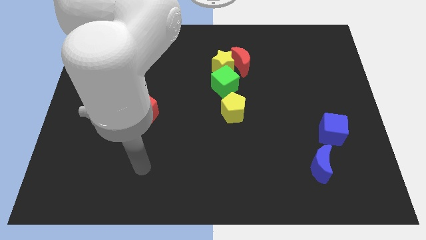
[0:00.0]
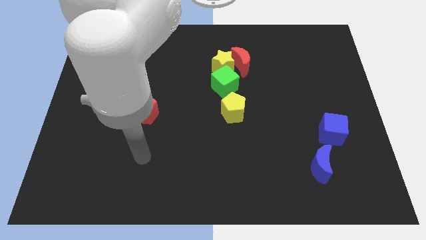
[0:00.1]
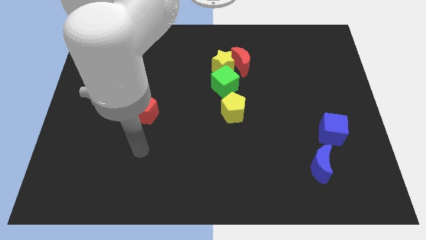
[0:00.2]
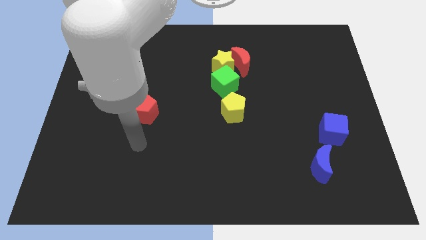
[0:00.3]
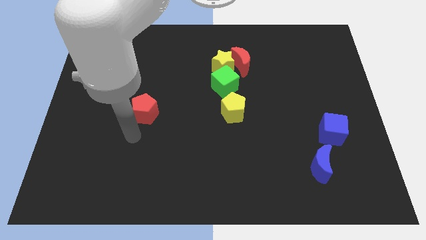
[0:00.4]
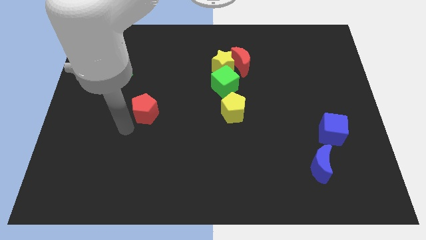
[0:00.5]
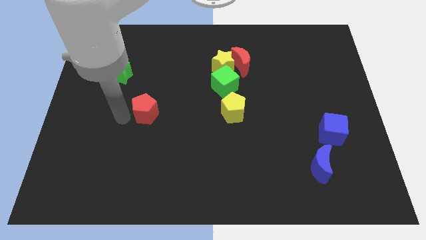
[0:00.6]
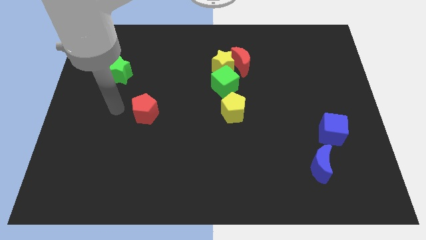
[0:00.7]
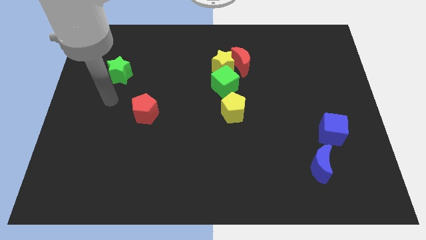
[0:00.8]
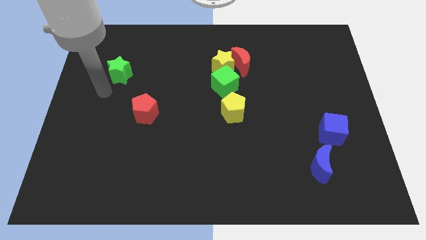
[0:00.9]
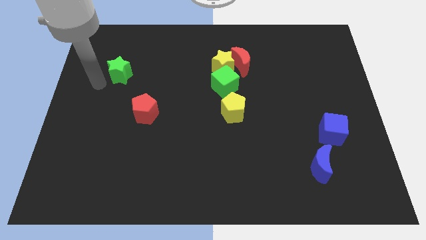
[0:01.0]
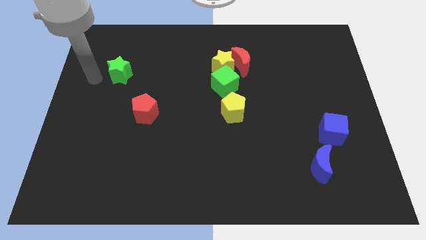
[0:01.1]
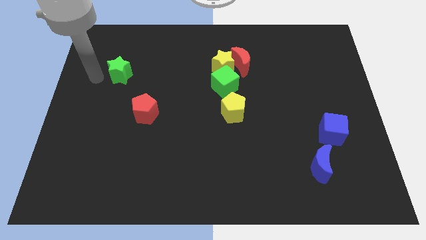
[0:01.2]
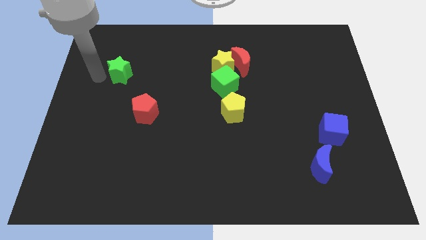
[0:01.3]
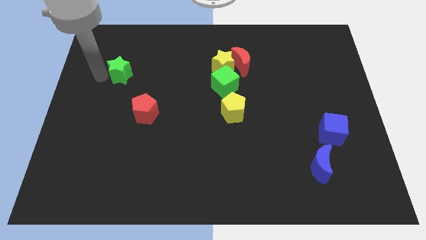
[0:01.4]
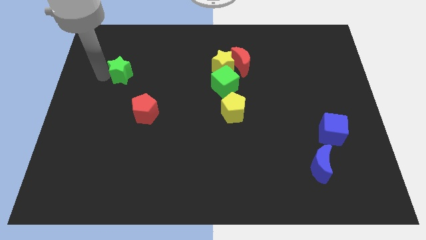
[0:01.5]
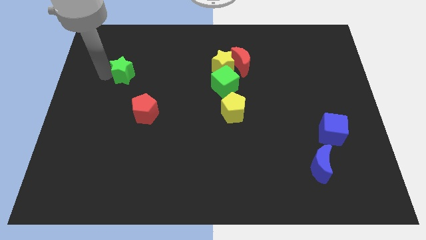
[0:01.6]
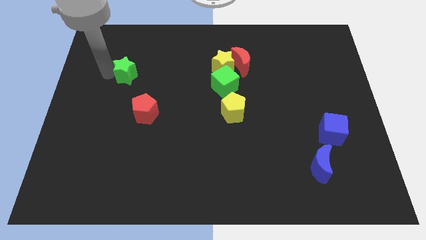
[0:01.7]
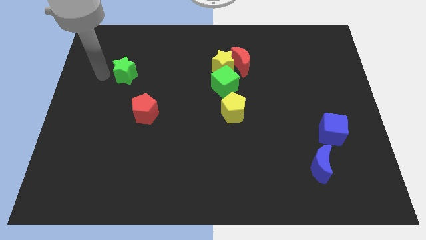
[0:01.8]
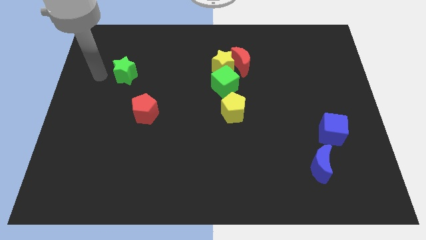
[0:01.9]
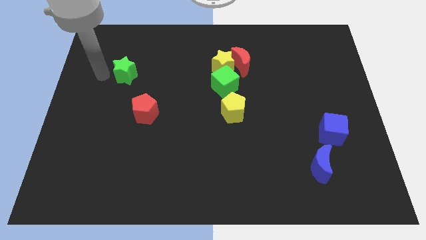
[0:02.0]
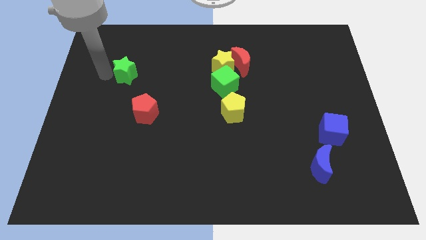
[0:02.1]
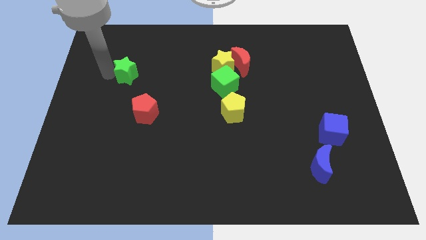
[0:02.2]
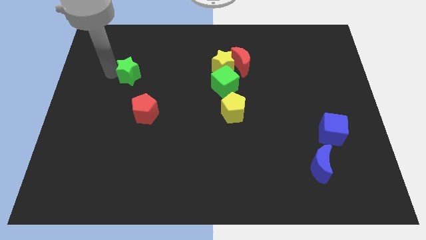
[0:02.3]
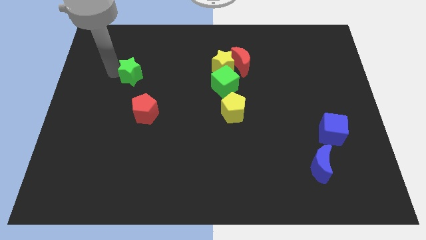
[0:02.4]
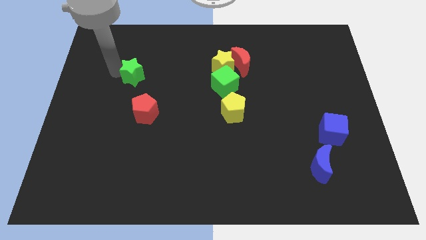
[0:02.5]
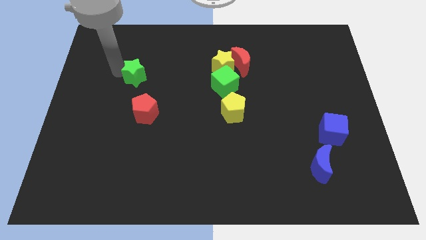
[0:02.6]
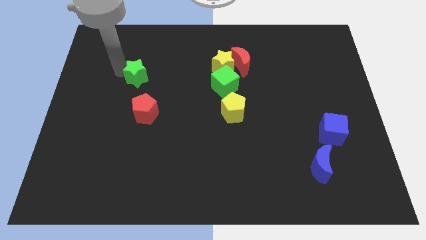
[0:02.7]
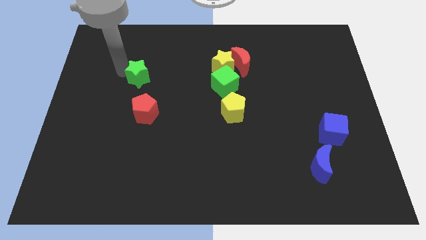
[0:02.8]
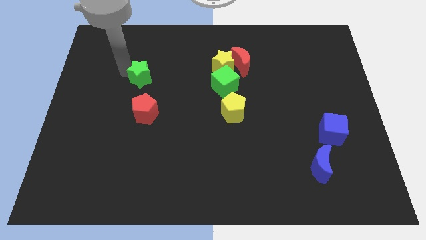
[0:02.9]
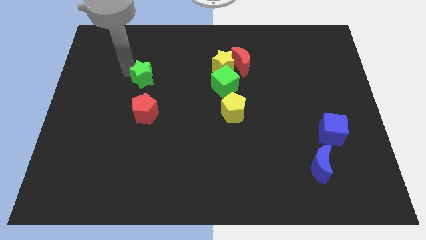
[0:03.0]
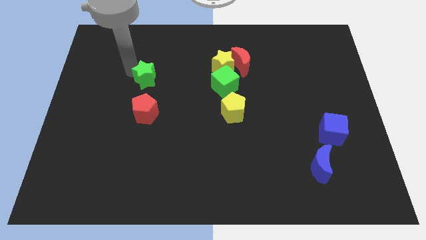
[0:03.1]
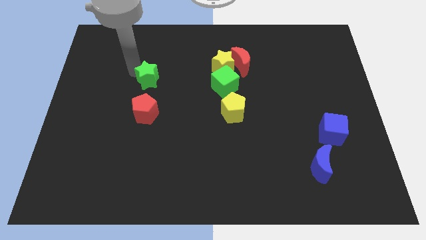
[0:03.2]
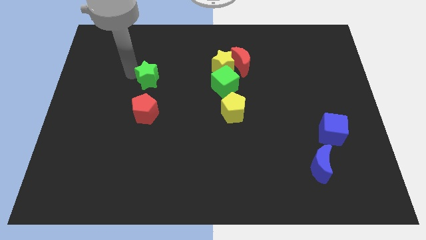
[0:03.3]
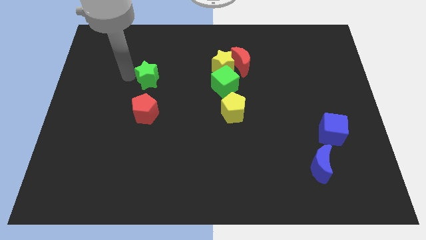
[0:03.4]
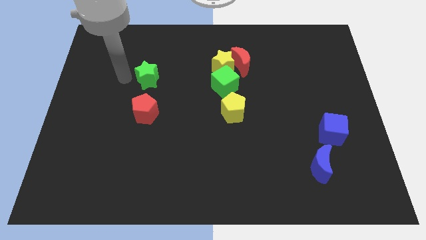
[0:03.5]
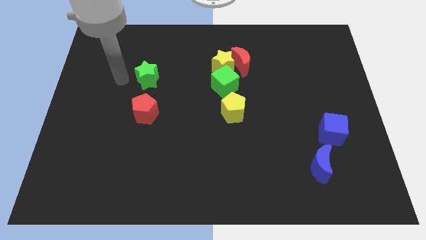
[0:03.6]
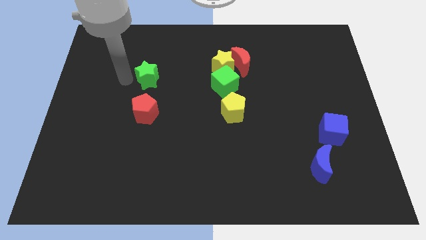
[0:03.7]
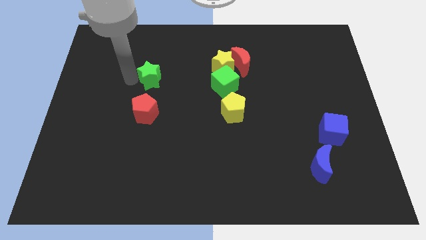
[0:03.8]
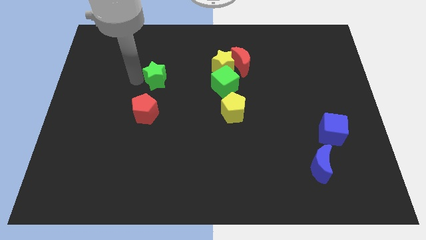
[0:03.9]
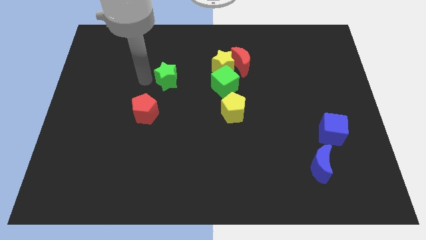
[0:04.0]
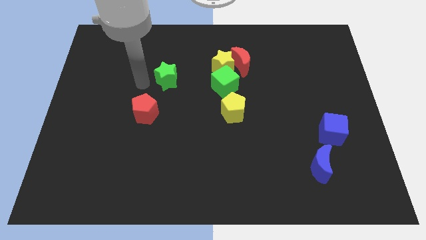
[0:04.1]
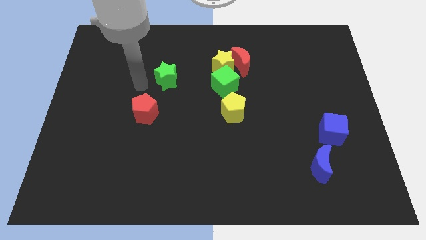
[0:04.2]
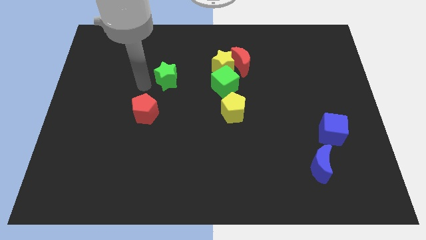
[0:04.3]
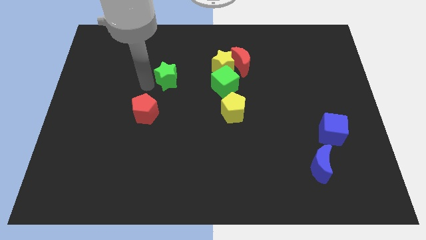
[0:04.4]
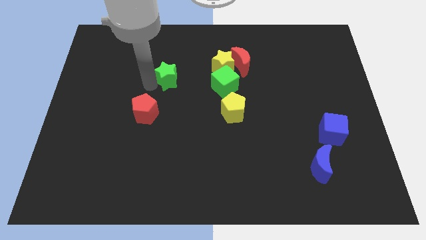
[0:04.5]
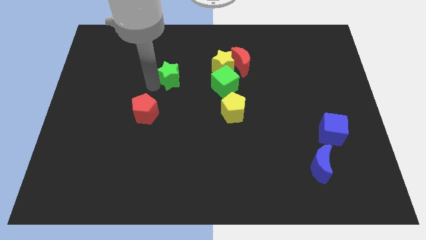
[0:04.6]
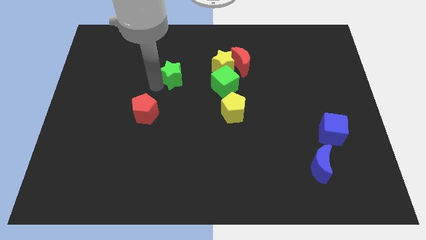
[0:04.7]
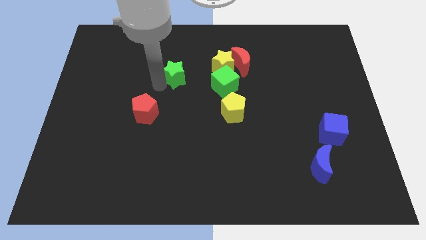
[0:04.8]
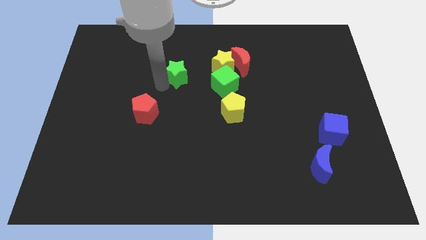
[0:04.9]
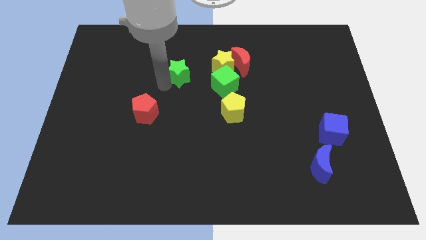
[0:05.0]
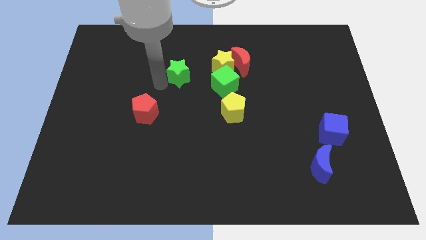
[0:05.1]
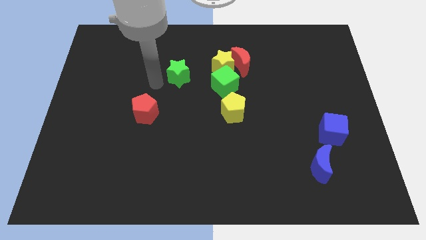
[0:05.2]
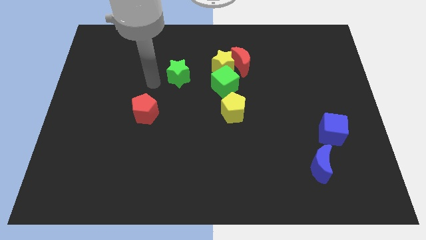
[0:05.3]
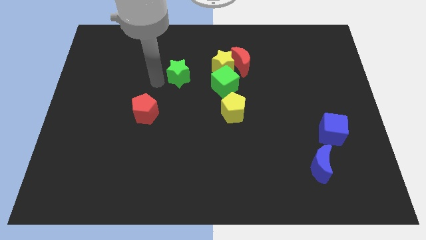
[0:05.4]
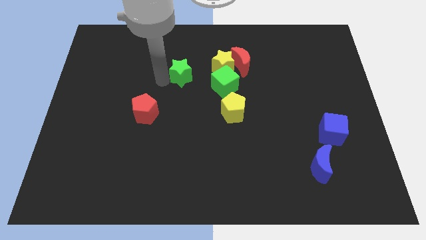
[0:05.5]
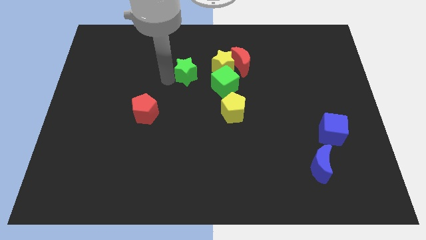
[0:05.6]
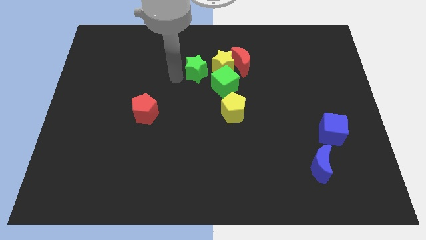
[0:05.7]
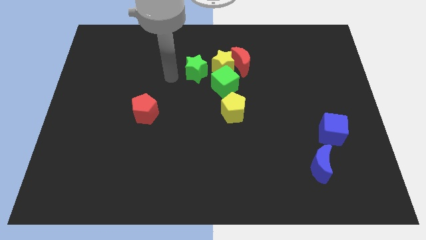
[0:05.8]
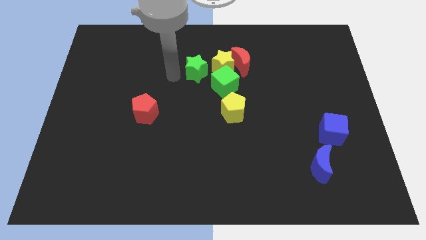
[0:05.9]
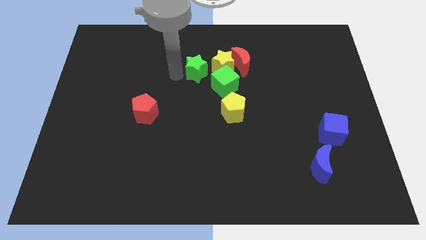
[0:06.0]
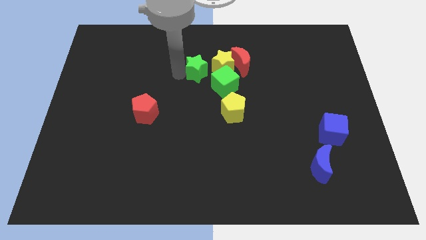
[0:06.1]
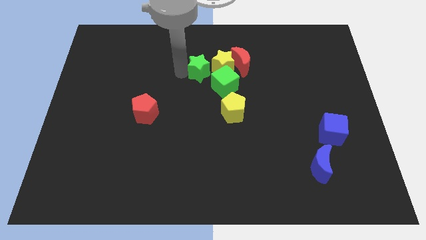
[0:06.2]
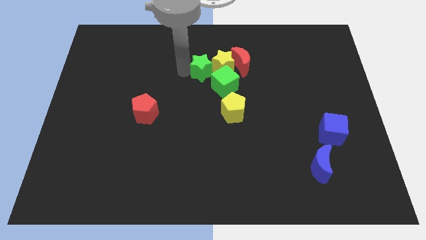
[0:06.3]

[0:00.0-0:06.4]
slide the green star close to the yellow star

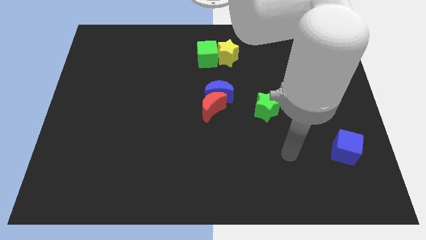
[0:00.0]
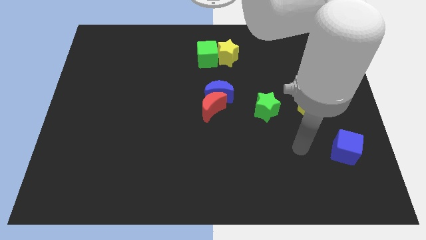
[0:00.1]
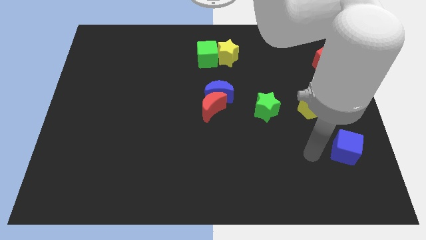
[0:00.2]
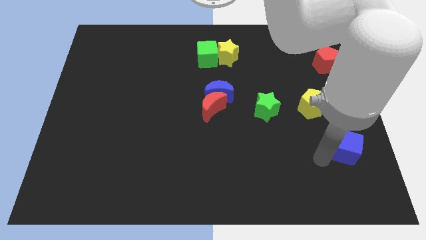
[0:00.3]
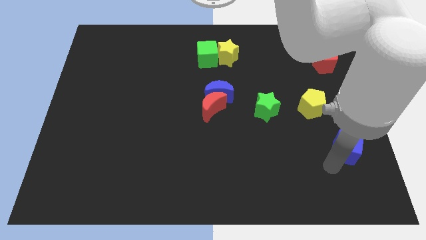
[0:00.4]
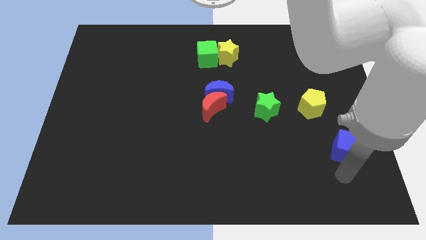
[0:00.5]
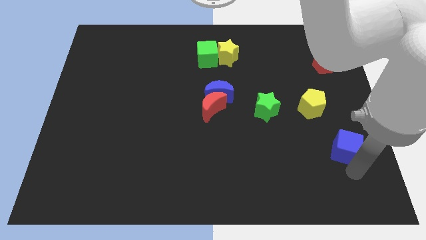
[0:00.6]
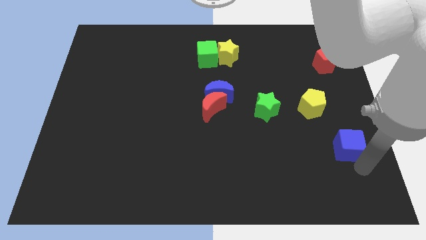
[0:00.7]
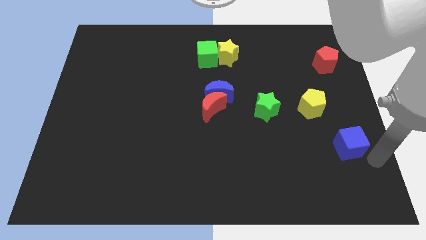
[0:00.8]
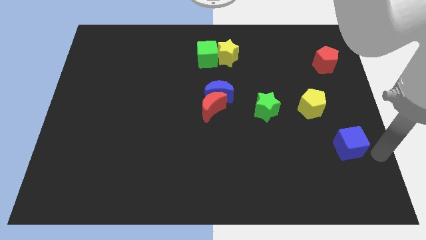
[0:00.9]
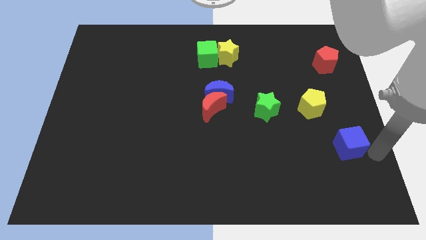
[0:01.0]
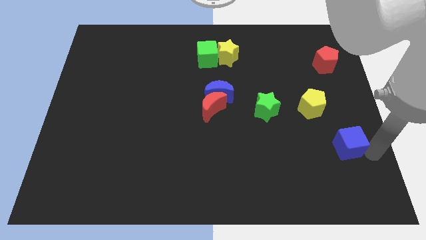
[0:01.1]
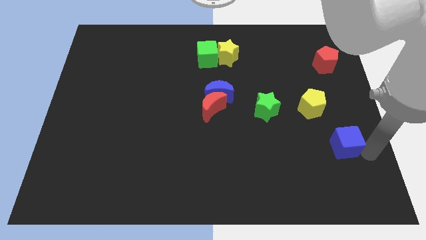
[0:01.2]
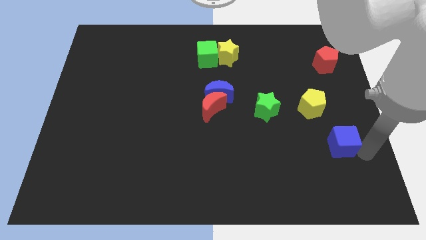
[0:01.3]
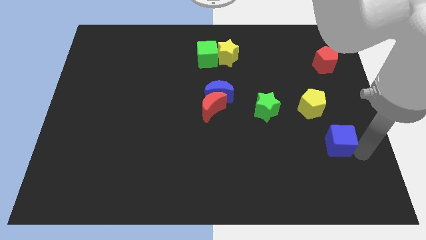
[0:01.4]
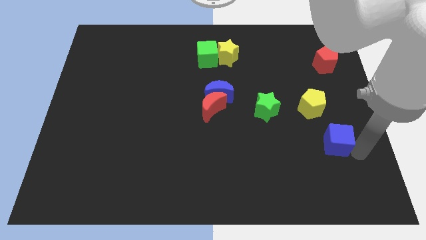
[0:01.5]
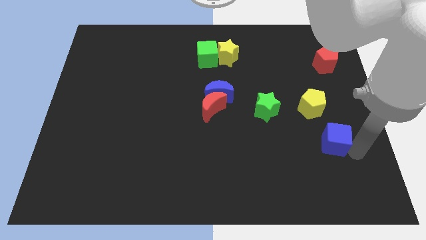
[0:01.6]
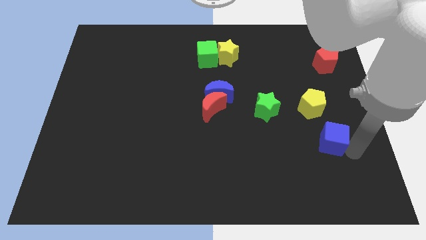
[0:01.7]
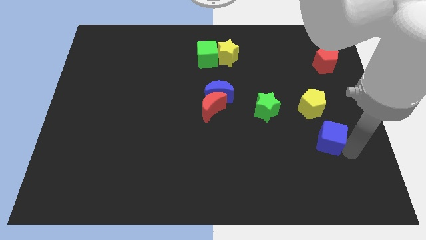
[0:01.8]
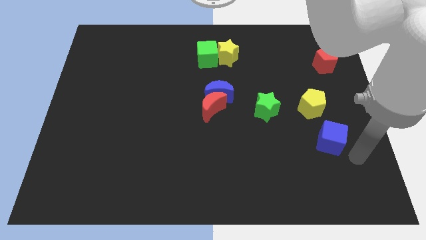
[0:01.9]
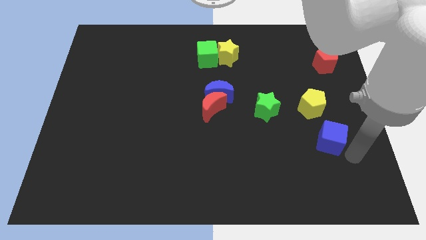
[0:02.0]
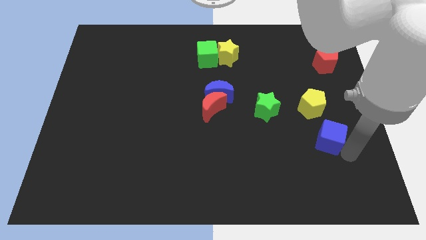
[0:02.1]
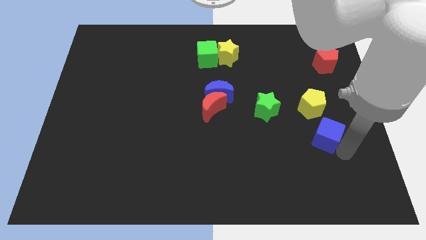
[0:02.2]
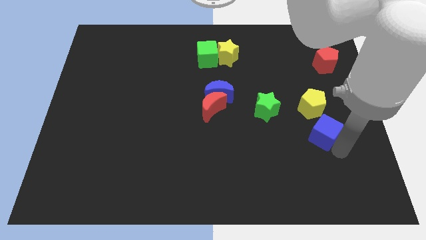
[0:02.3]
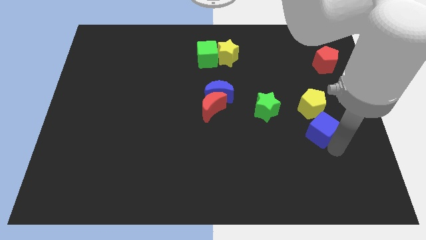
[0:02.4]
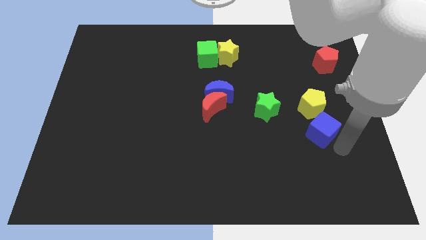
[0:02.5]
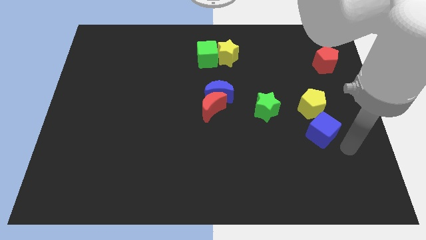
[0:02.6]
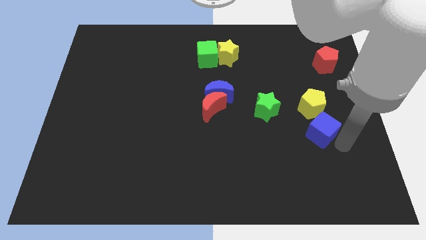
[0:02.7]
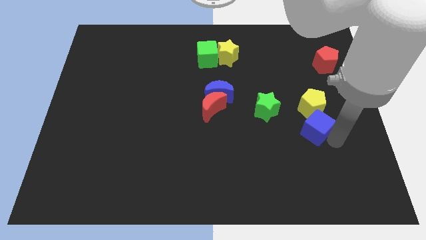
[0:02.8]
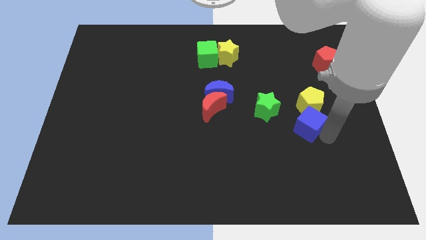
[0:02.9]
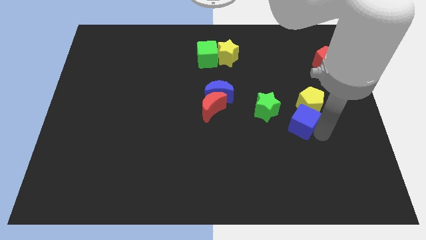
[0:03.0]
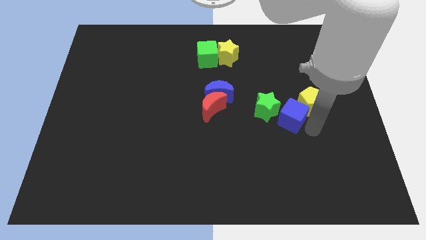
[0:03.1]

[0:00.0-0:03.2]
slide the blue cube next to the green star
